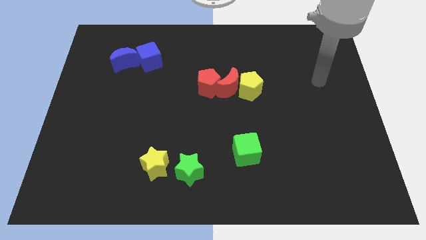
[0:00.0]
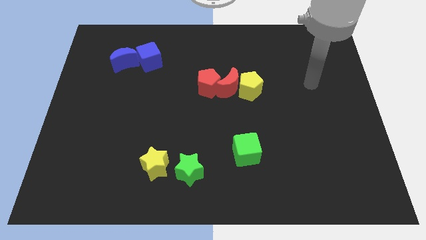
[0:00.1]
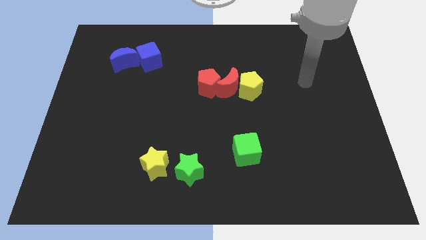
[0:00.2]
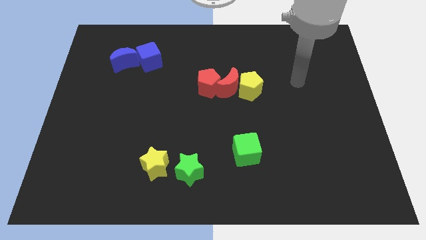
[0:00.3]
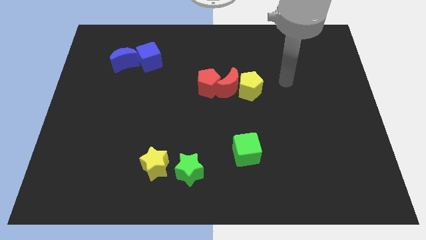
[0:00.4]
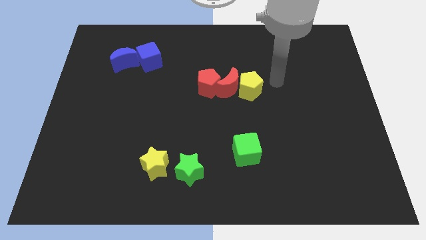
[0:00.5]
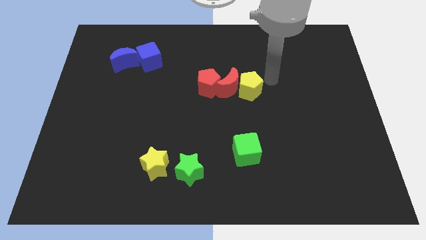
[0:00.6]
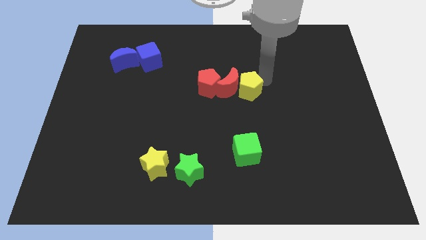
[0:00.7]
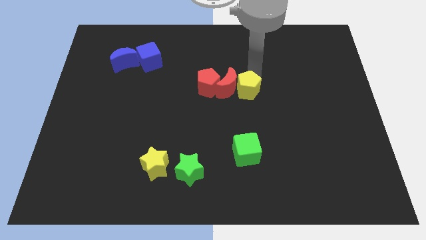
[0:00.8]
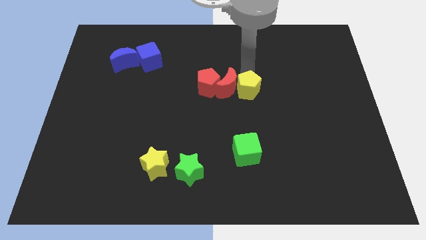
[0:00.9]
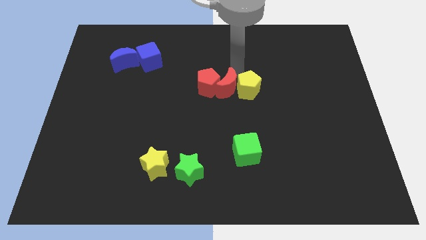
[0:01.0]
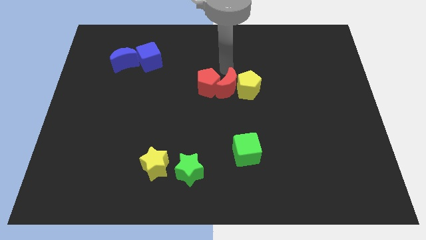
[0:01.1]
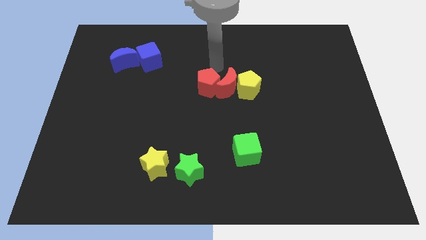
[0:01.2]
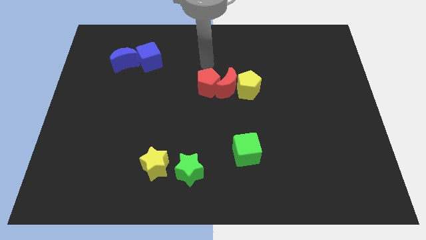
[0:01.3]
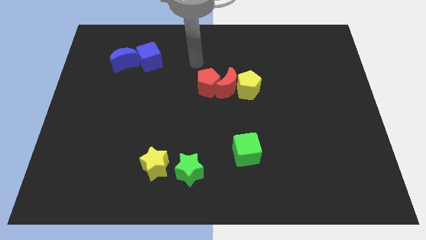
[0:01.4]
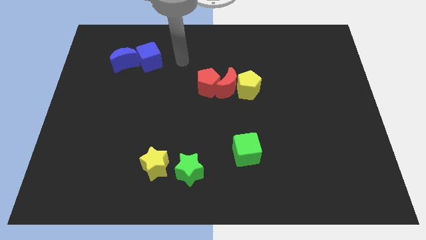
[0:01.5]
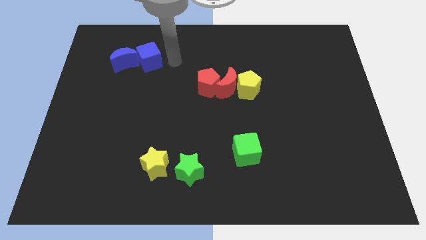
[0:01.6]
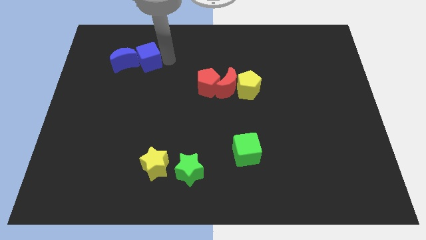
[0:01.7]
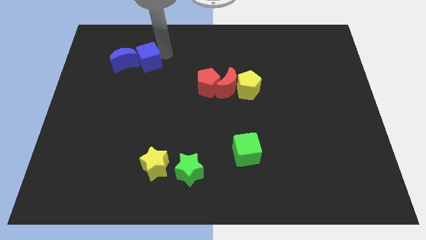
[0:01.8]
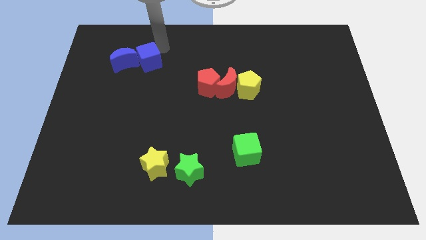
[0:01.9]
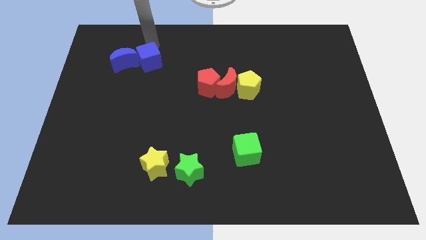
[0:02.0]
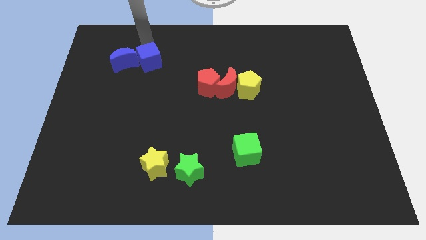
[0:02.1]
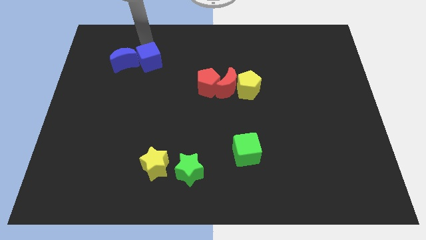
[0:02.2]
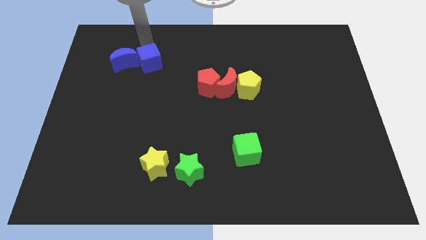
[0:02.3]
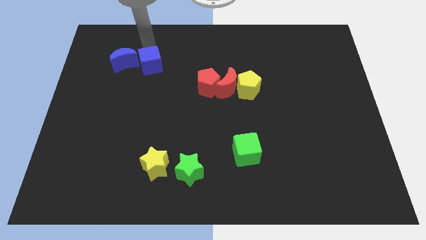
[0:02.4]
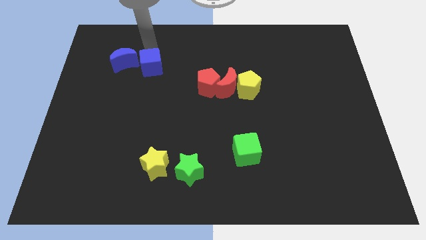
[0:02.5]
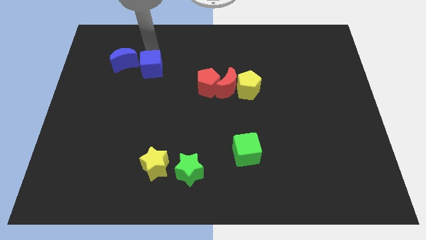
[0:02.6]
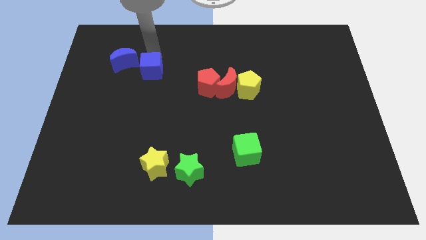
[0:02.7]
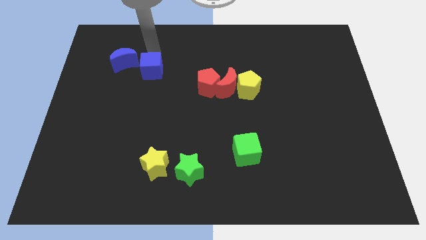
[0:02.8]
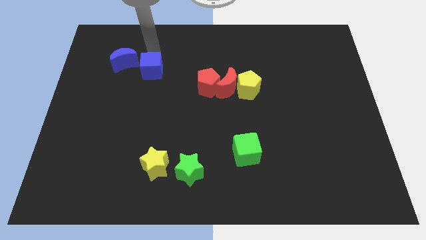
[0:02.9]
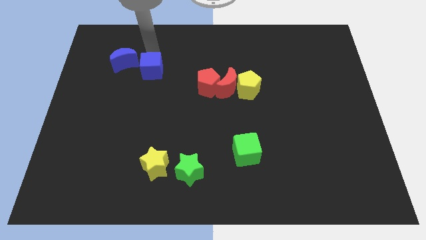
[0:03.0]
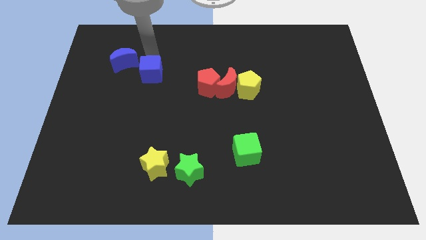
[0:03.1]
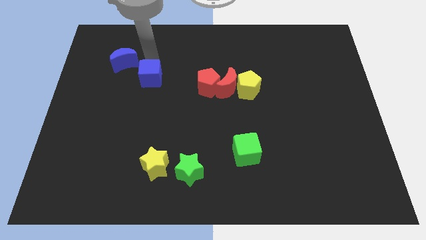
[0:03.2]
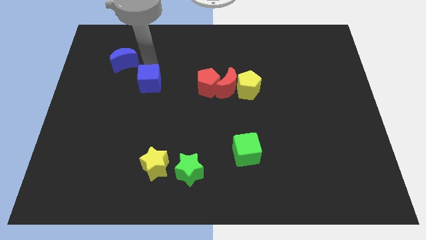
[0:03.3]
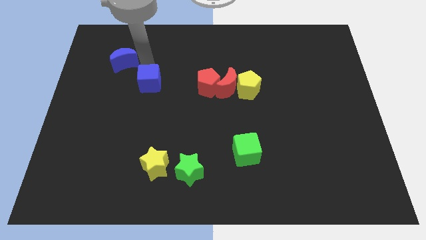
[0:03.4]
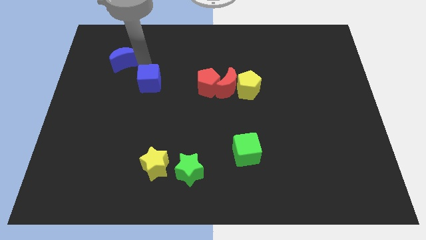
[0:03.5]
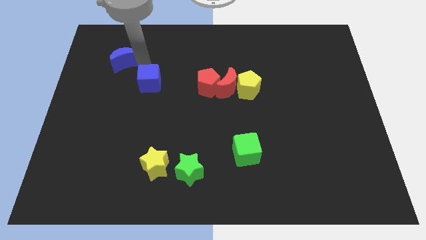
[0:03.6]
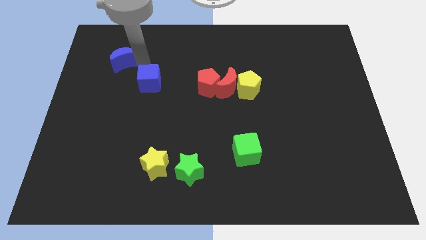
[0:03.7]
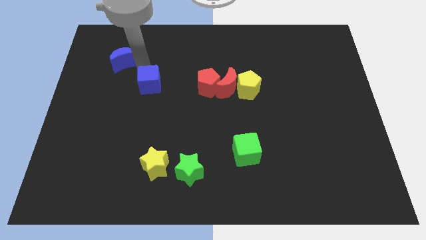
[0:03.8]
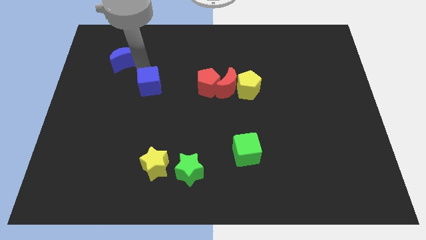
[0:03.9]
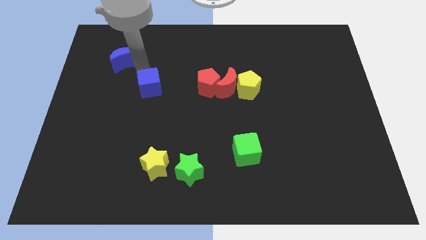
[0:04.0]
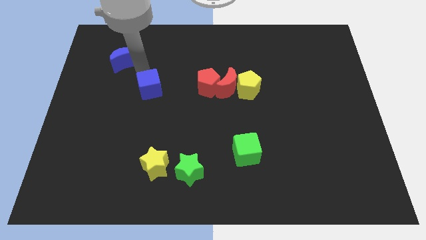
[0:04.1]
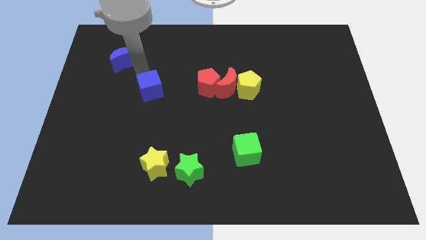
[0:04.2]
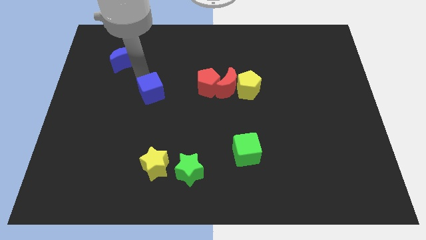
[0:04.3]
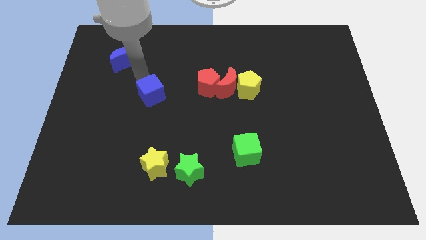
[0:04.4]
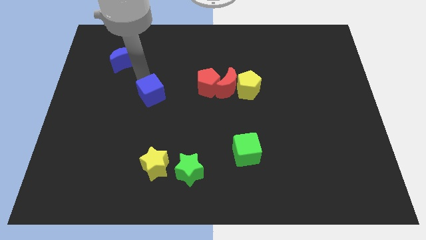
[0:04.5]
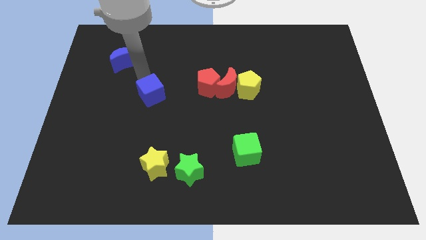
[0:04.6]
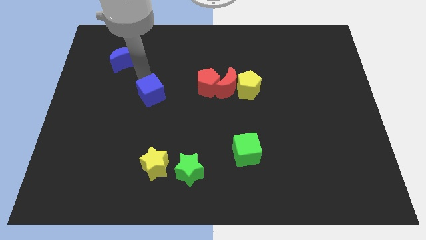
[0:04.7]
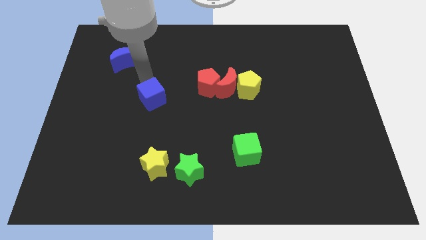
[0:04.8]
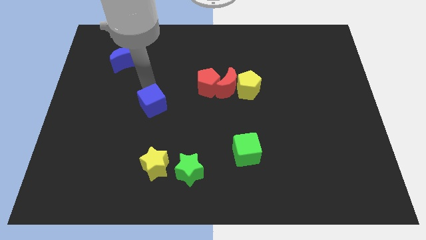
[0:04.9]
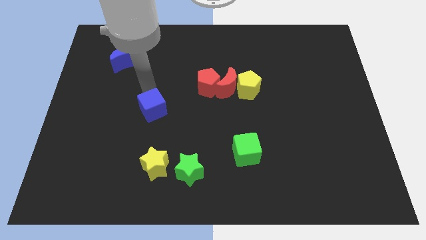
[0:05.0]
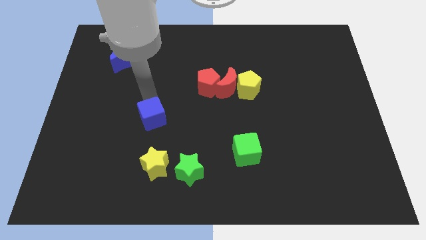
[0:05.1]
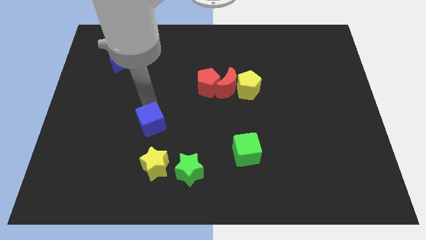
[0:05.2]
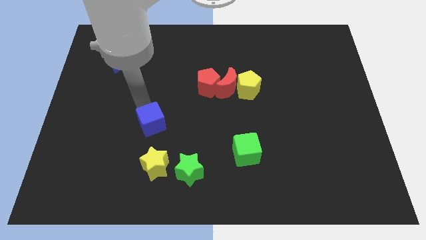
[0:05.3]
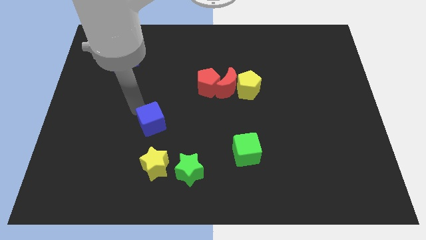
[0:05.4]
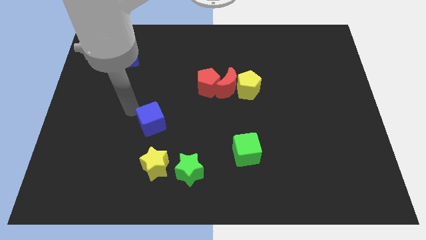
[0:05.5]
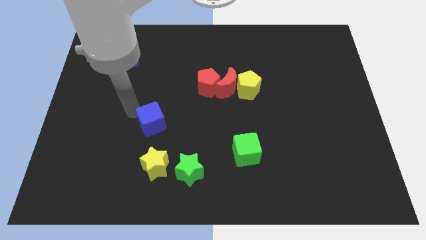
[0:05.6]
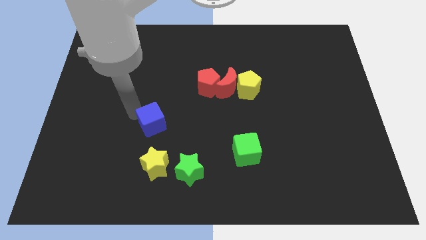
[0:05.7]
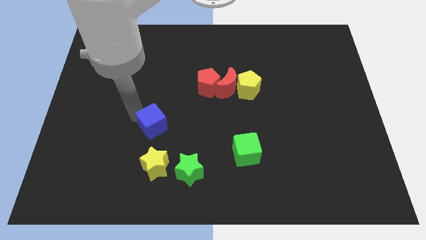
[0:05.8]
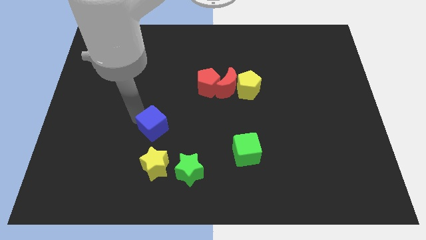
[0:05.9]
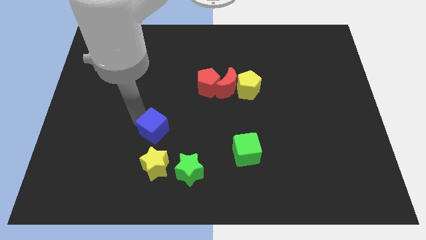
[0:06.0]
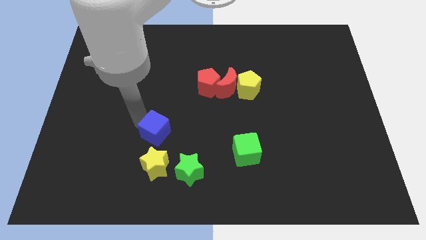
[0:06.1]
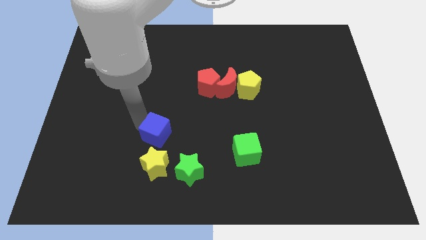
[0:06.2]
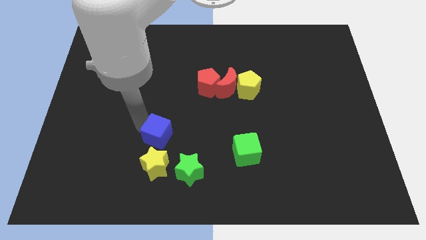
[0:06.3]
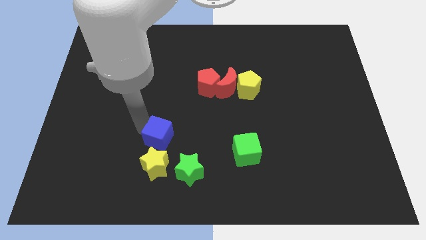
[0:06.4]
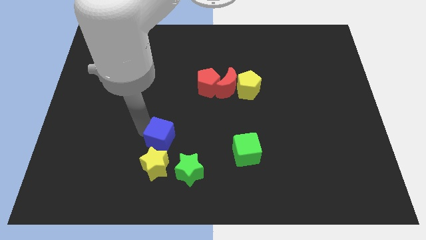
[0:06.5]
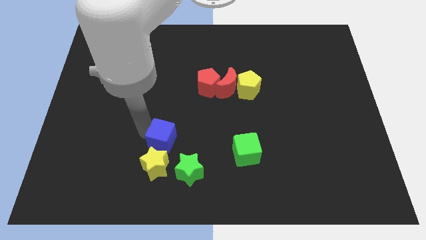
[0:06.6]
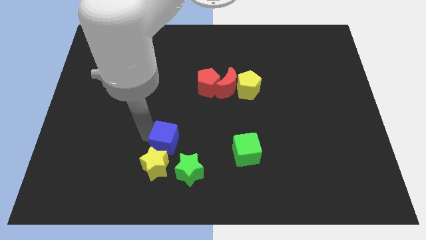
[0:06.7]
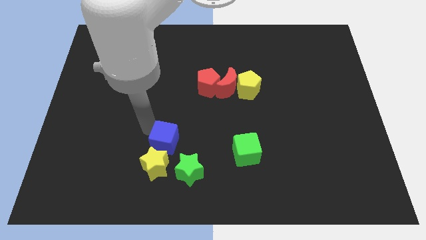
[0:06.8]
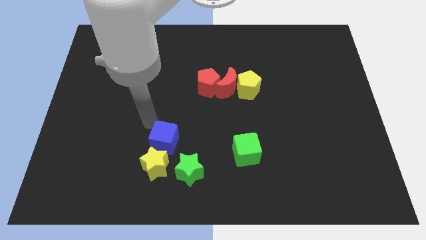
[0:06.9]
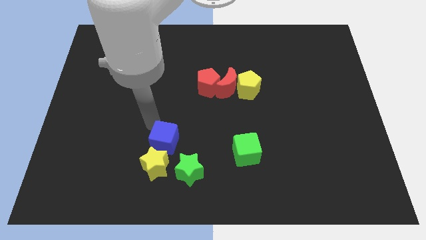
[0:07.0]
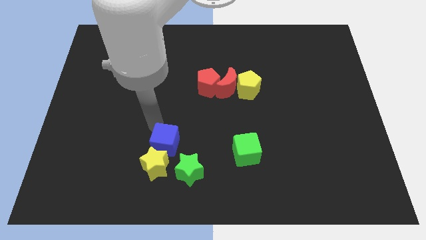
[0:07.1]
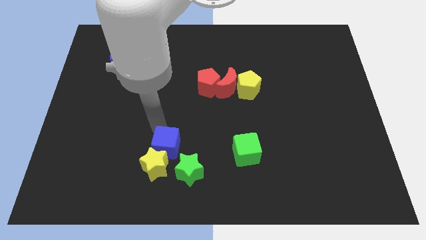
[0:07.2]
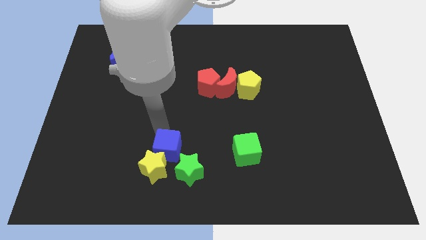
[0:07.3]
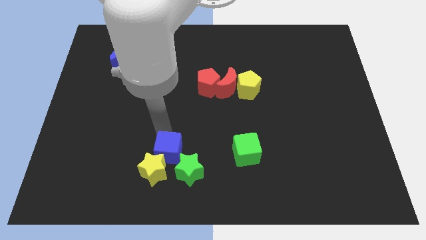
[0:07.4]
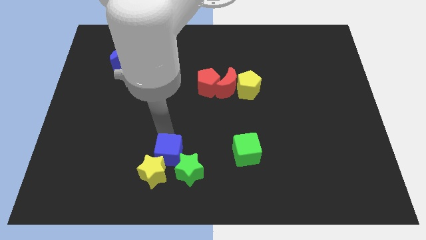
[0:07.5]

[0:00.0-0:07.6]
move the blue cube close to the green star

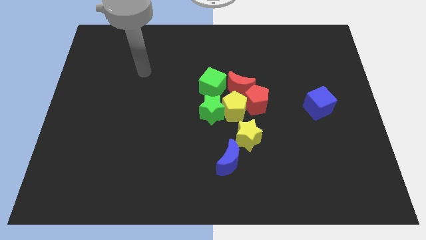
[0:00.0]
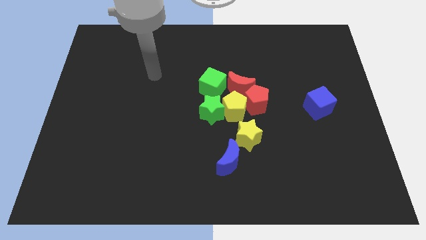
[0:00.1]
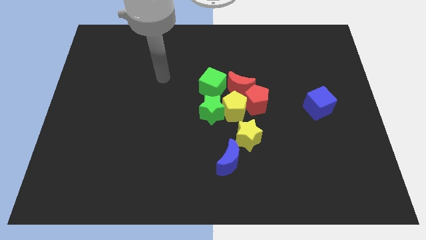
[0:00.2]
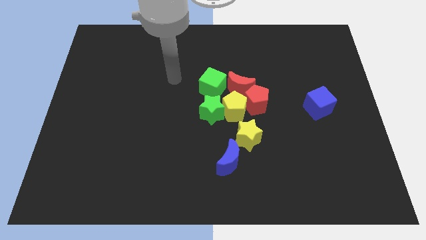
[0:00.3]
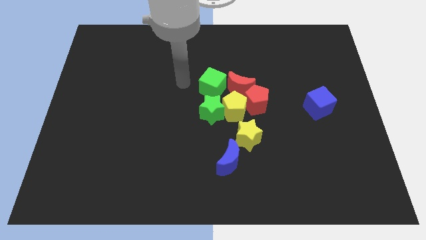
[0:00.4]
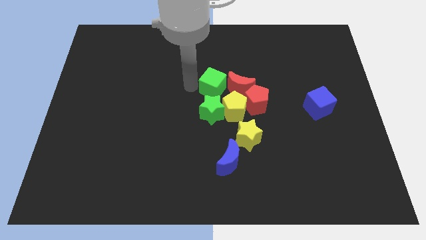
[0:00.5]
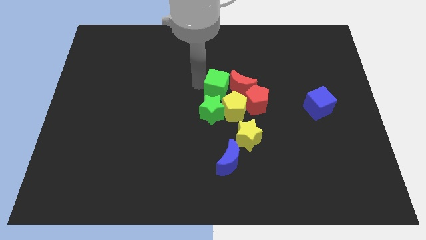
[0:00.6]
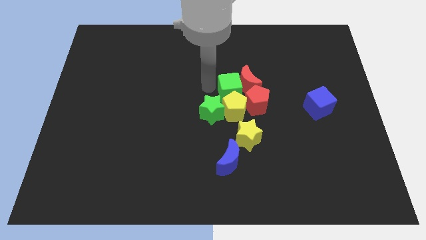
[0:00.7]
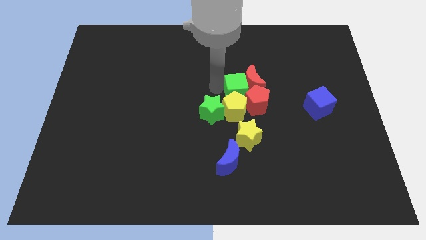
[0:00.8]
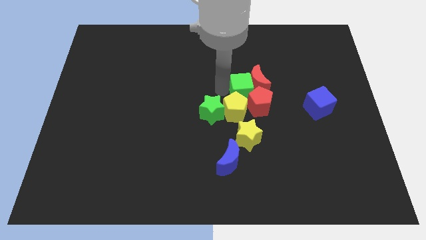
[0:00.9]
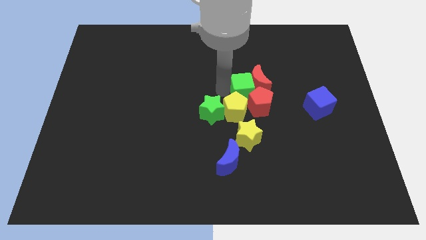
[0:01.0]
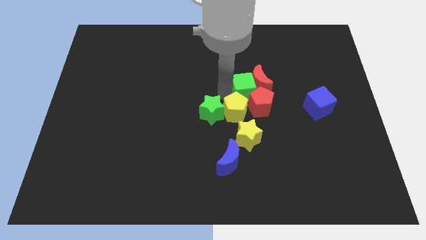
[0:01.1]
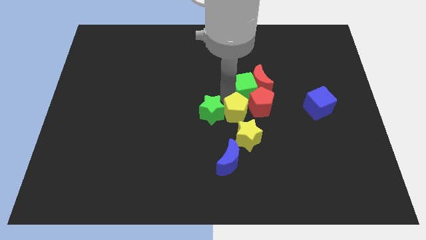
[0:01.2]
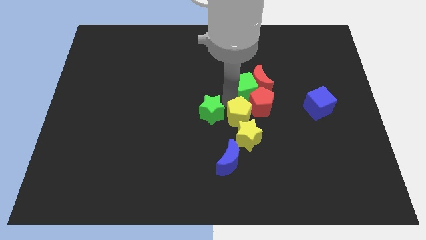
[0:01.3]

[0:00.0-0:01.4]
slide the yellow pentagon towards the yellow star
